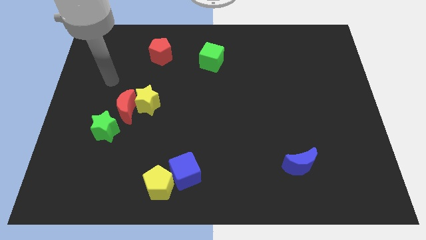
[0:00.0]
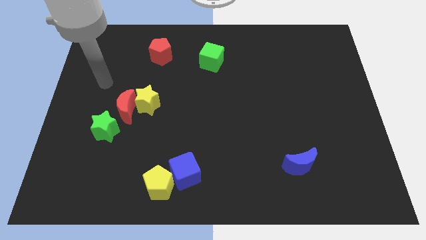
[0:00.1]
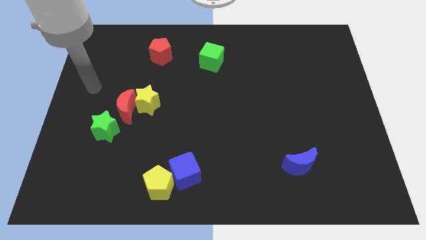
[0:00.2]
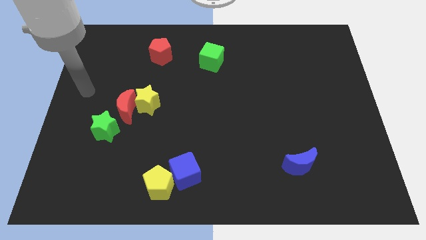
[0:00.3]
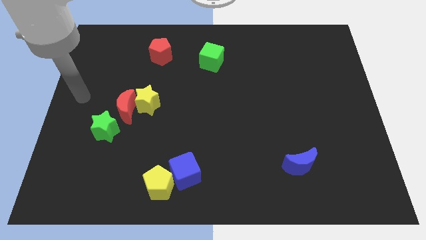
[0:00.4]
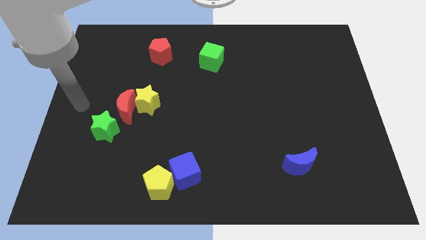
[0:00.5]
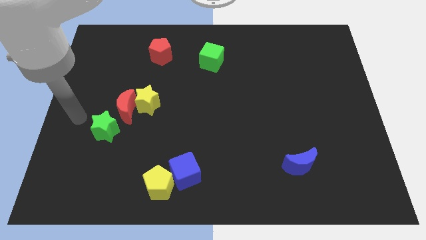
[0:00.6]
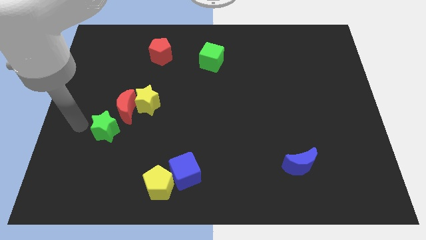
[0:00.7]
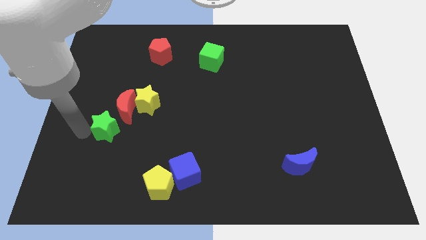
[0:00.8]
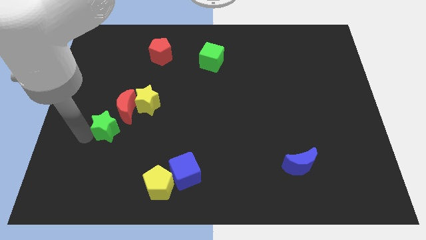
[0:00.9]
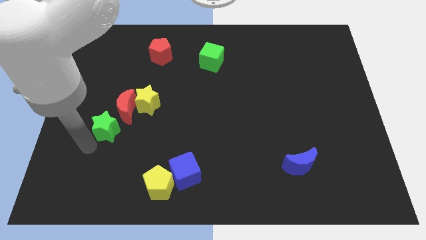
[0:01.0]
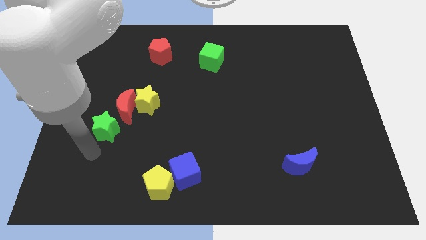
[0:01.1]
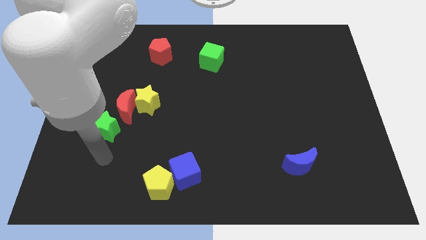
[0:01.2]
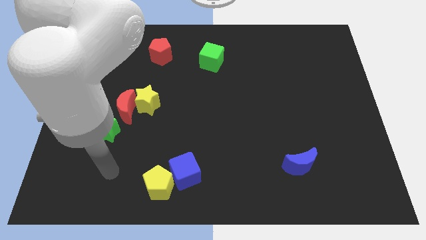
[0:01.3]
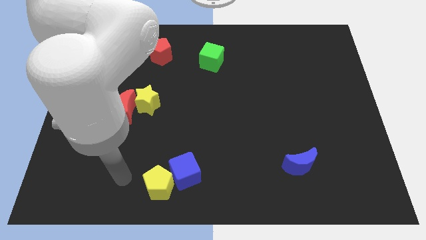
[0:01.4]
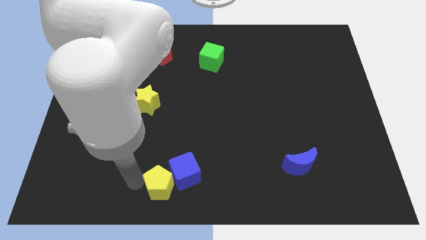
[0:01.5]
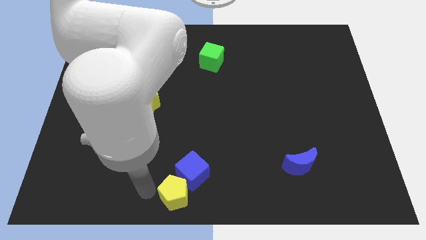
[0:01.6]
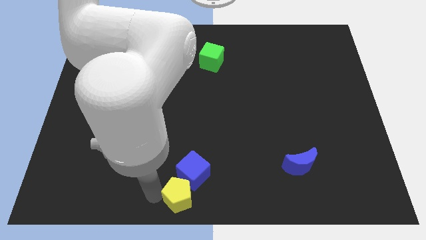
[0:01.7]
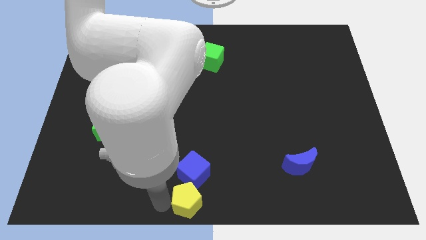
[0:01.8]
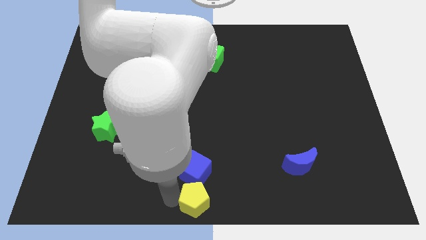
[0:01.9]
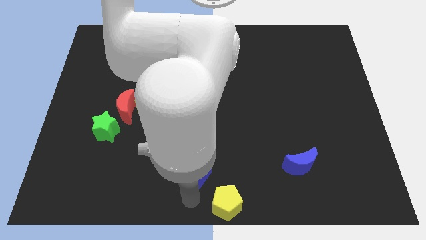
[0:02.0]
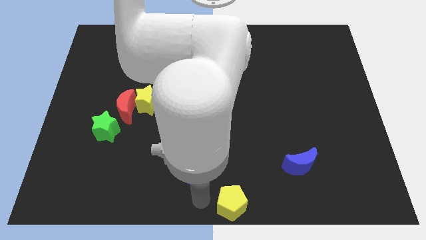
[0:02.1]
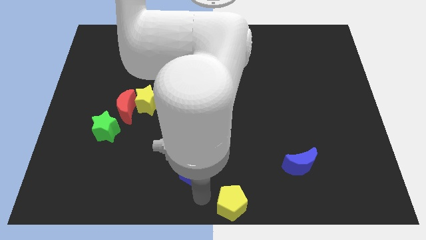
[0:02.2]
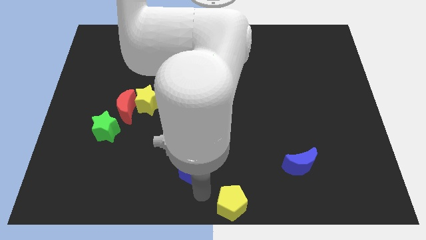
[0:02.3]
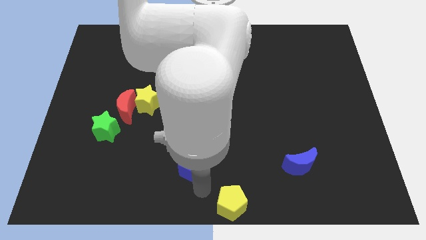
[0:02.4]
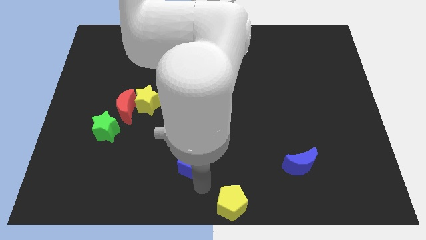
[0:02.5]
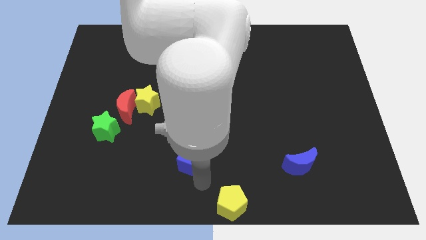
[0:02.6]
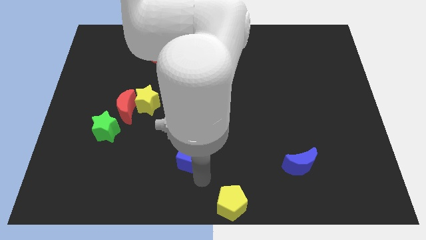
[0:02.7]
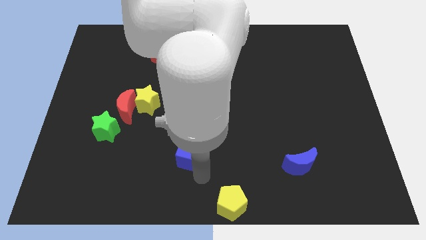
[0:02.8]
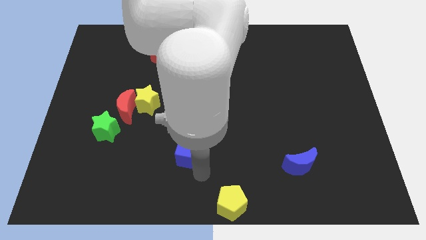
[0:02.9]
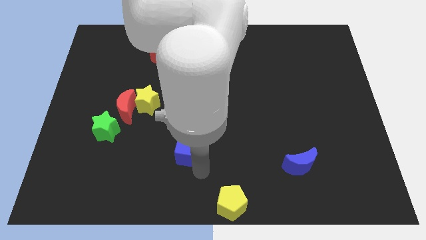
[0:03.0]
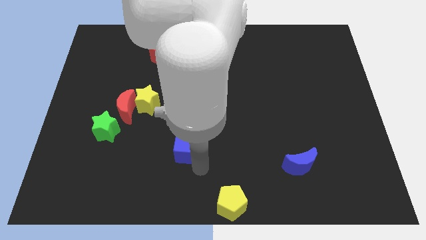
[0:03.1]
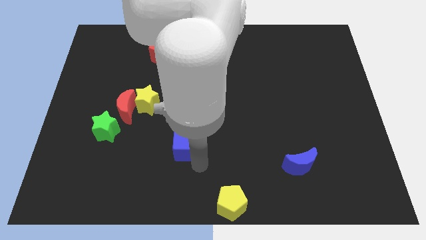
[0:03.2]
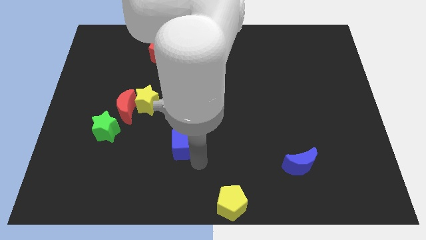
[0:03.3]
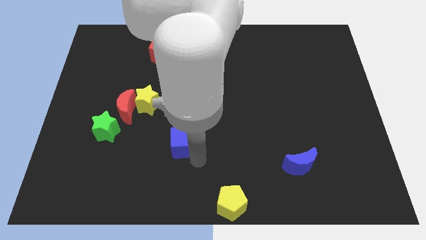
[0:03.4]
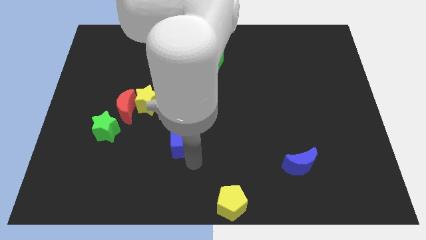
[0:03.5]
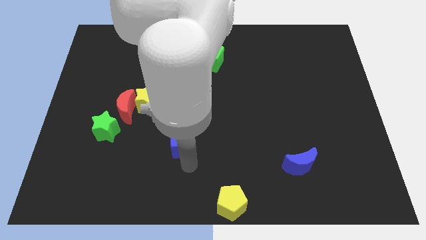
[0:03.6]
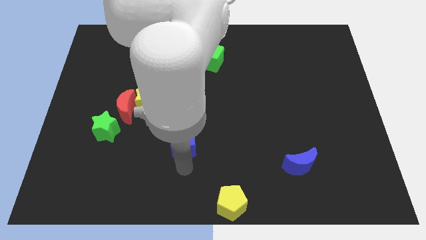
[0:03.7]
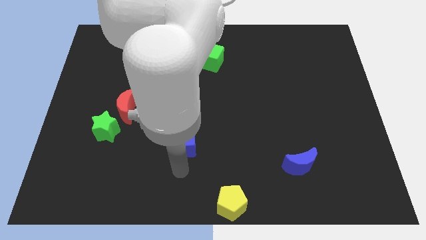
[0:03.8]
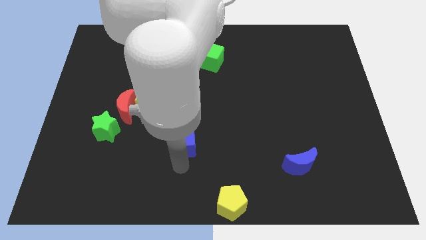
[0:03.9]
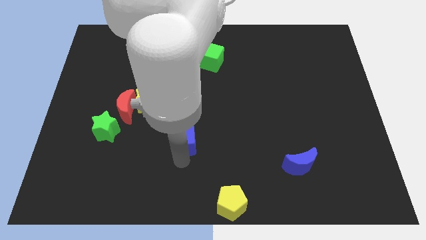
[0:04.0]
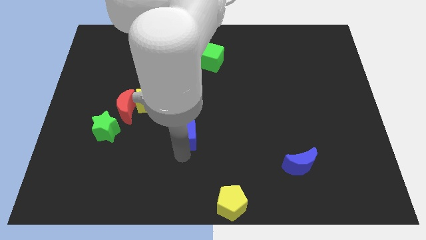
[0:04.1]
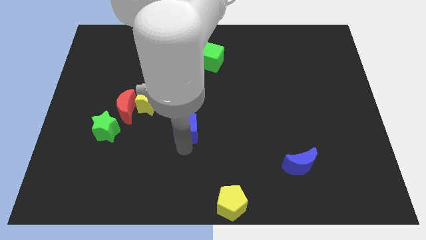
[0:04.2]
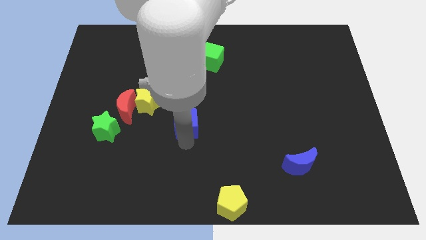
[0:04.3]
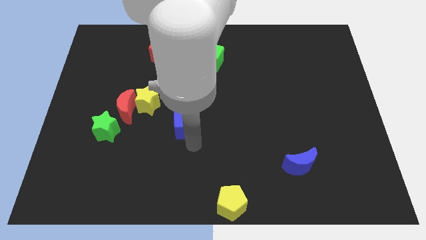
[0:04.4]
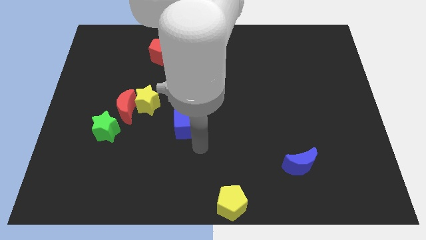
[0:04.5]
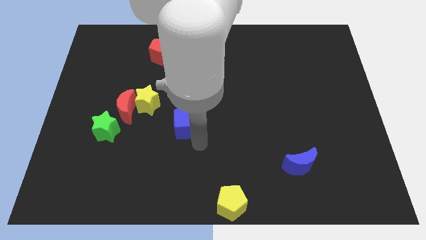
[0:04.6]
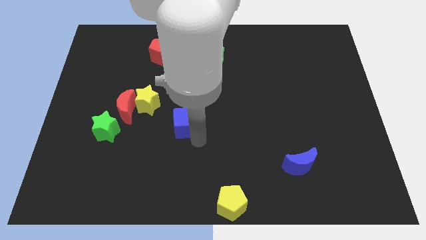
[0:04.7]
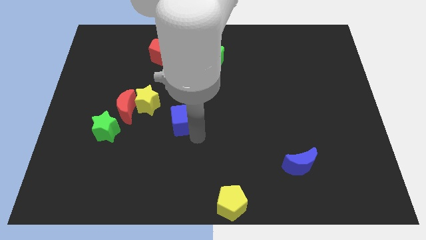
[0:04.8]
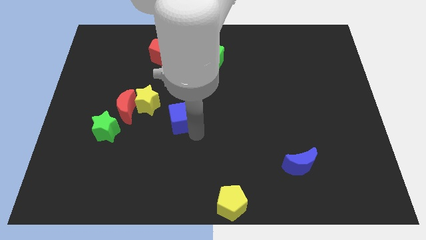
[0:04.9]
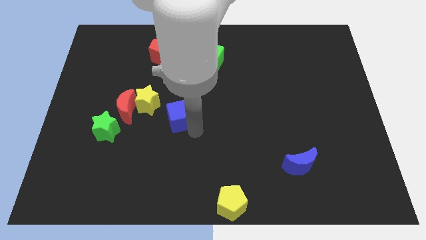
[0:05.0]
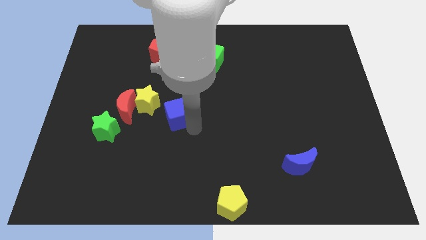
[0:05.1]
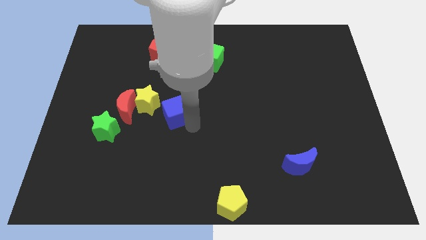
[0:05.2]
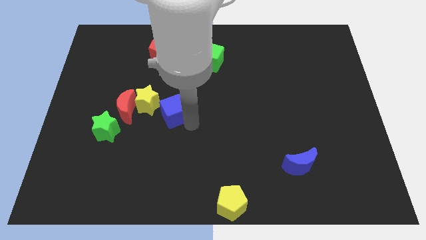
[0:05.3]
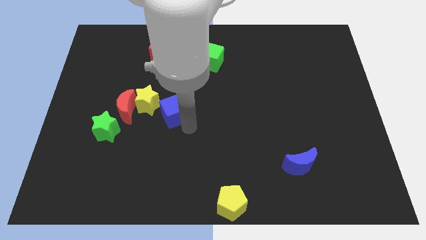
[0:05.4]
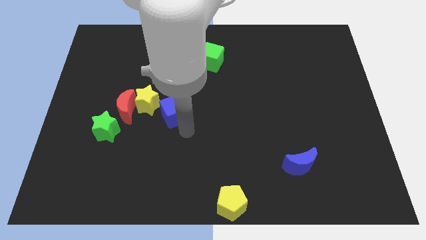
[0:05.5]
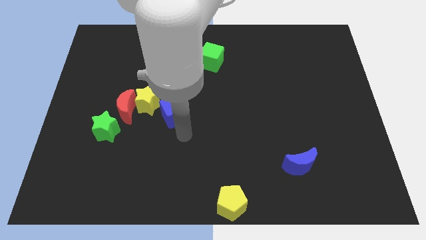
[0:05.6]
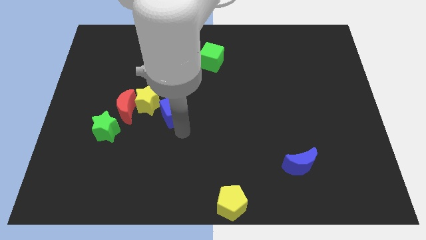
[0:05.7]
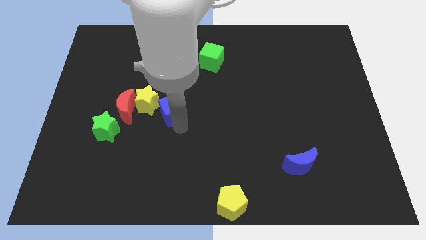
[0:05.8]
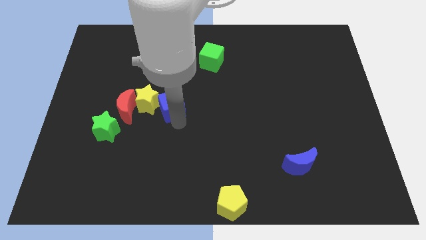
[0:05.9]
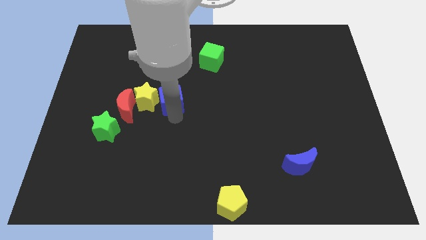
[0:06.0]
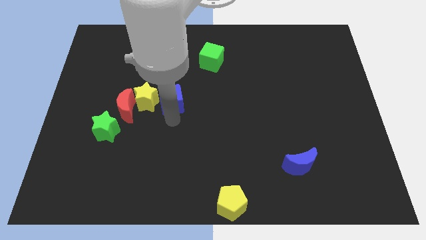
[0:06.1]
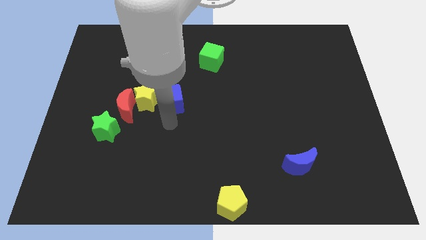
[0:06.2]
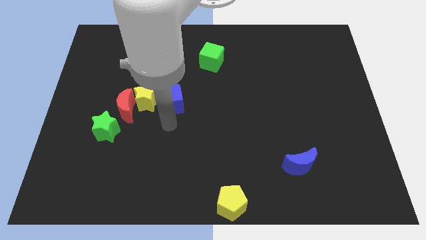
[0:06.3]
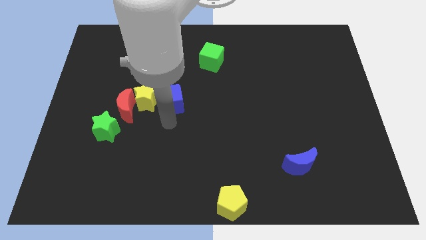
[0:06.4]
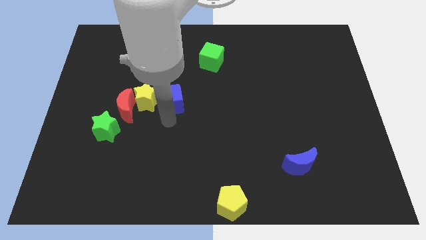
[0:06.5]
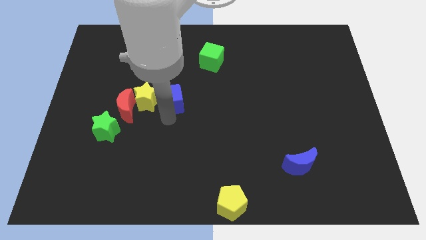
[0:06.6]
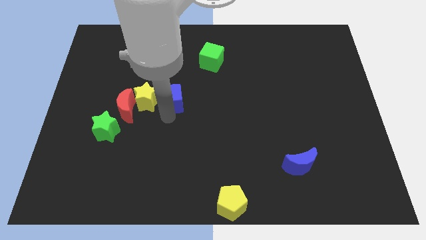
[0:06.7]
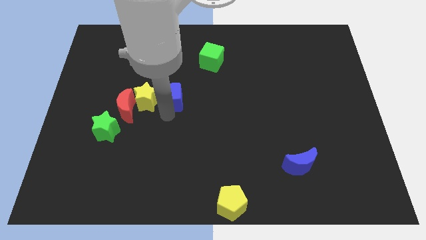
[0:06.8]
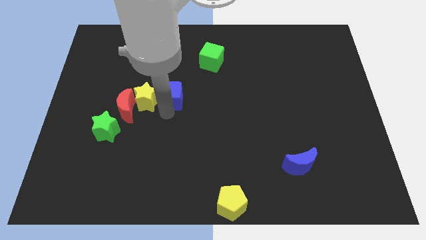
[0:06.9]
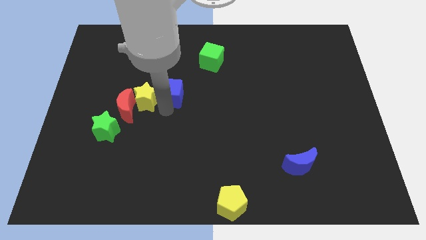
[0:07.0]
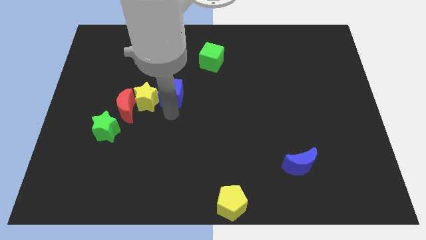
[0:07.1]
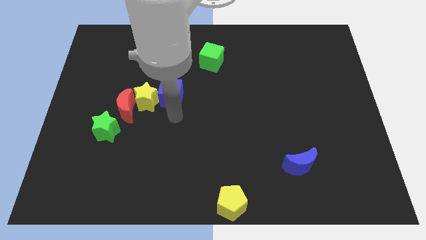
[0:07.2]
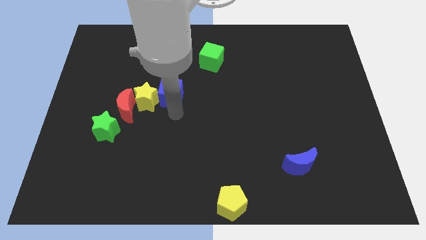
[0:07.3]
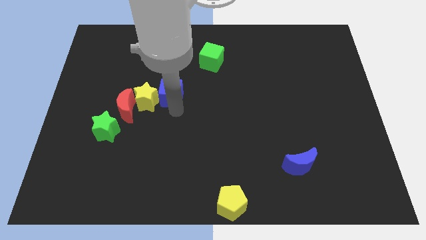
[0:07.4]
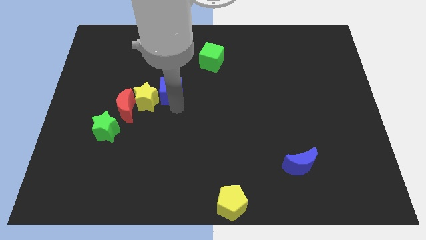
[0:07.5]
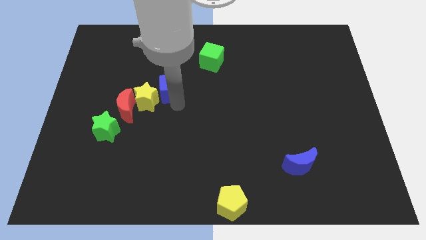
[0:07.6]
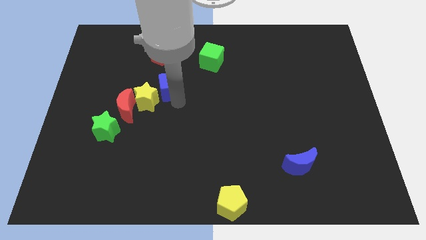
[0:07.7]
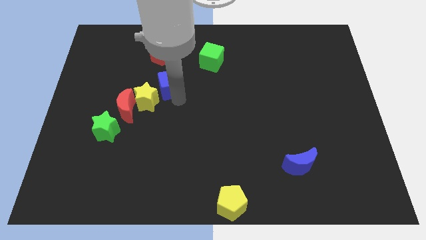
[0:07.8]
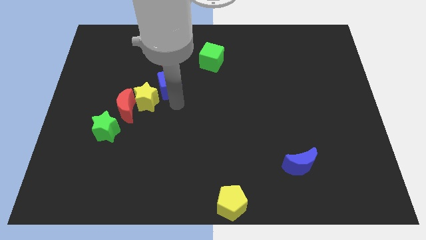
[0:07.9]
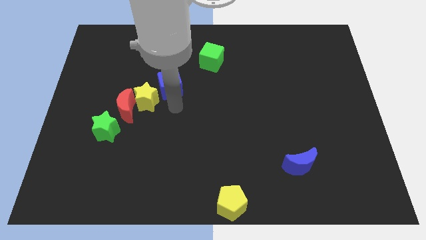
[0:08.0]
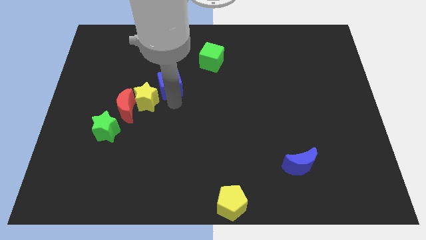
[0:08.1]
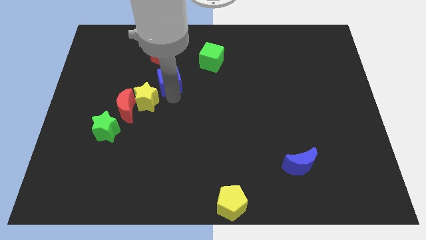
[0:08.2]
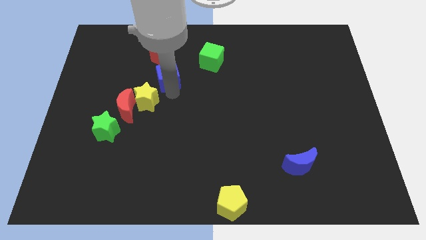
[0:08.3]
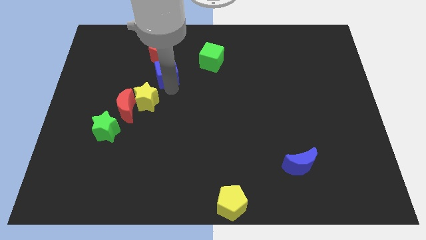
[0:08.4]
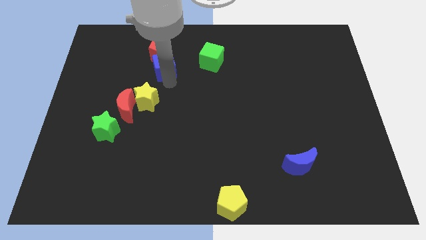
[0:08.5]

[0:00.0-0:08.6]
push the blue cube close to the red pentagon
